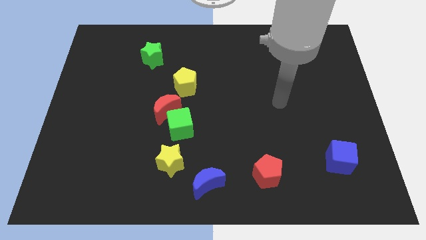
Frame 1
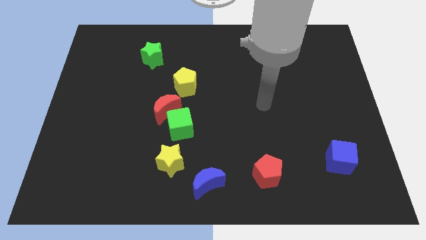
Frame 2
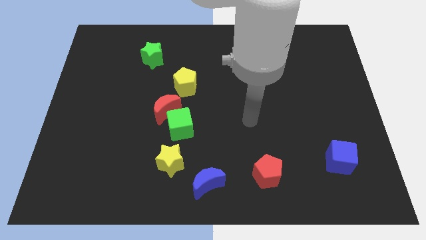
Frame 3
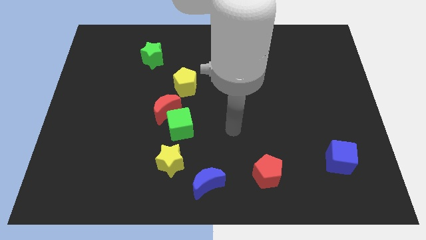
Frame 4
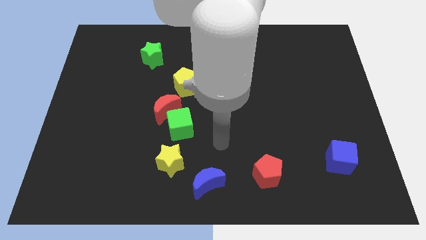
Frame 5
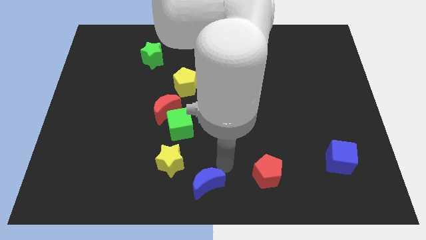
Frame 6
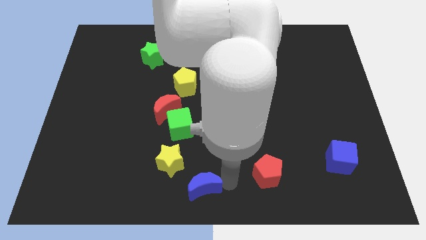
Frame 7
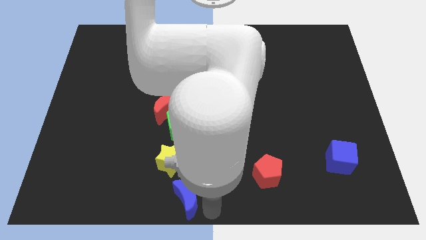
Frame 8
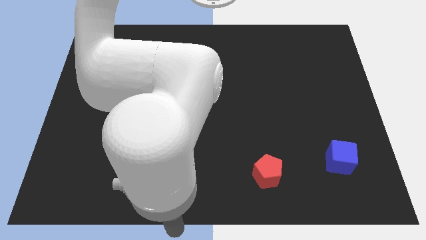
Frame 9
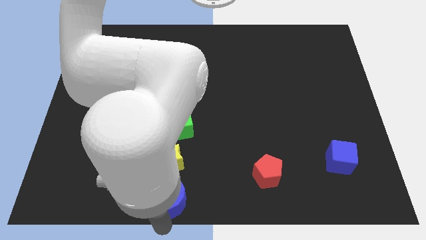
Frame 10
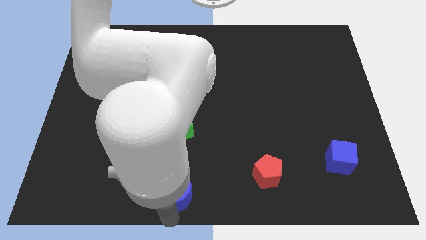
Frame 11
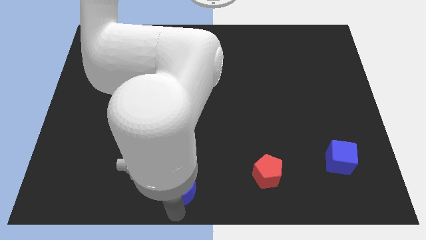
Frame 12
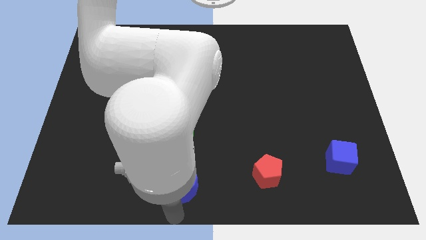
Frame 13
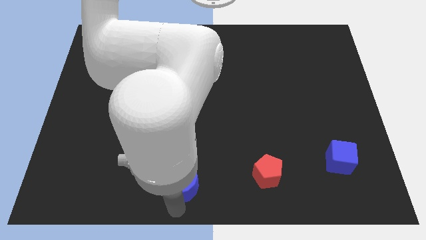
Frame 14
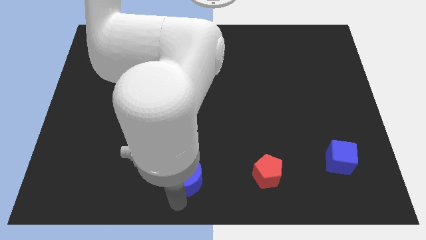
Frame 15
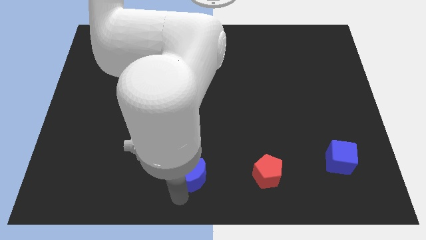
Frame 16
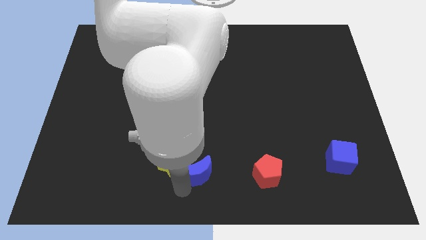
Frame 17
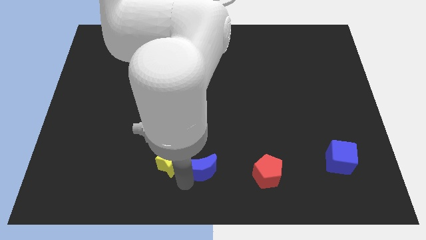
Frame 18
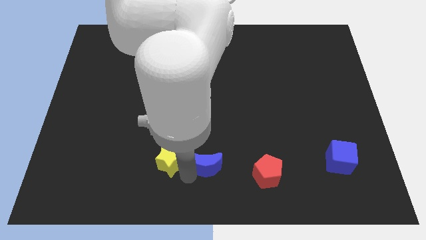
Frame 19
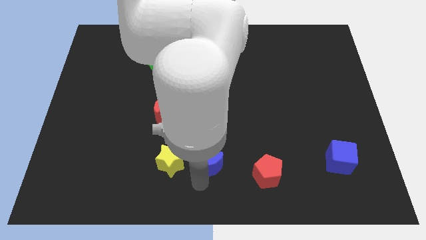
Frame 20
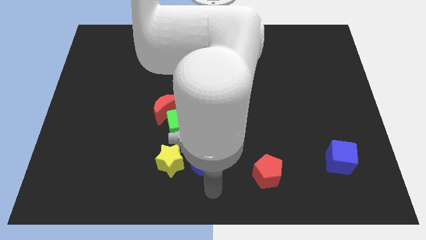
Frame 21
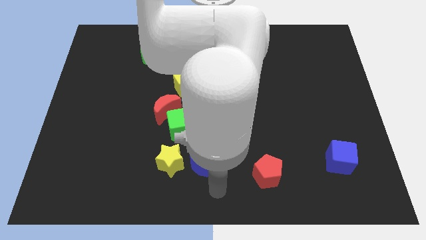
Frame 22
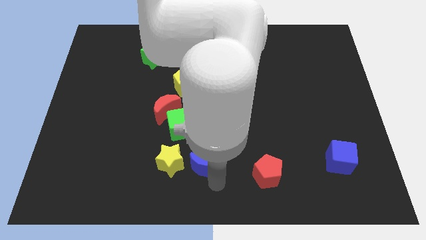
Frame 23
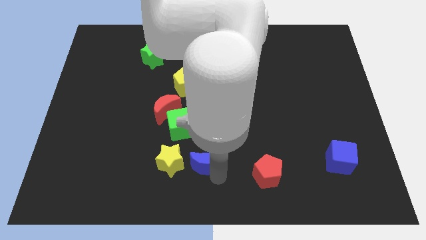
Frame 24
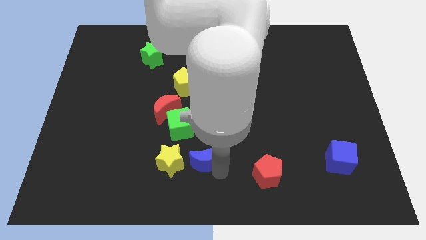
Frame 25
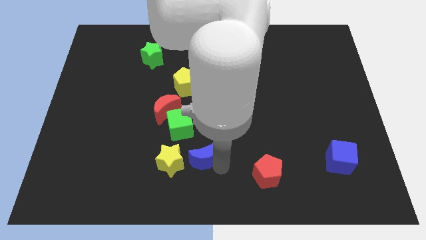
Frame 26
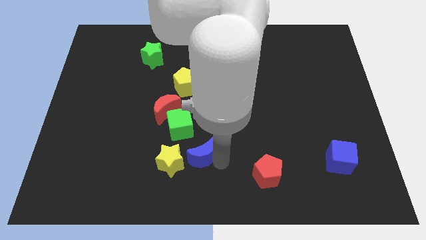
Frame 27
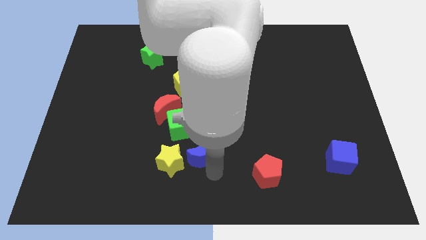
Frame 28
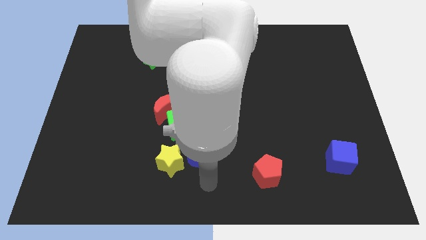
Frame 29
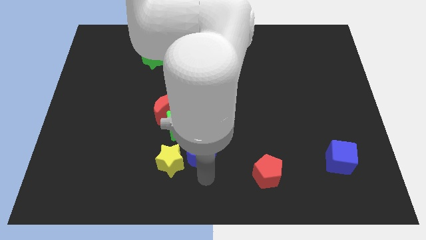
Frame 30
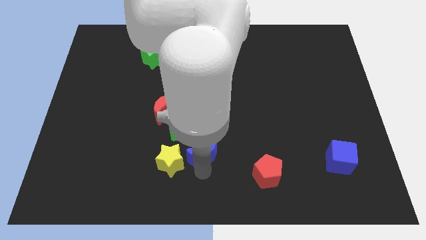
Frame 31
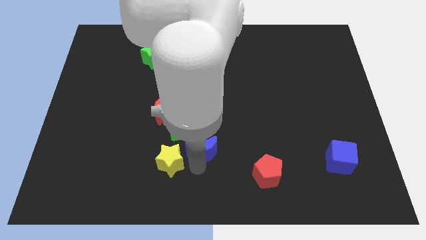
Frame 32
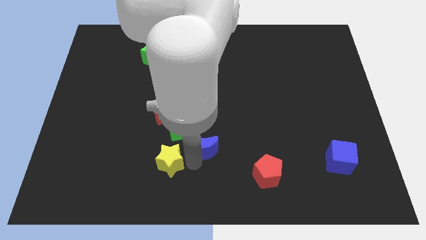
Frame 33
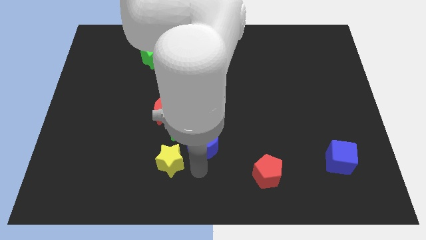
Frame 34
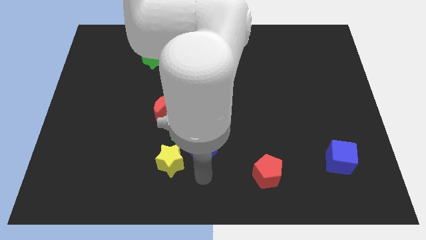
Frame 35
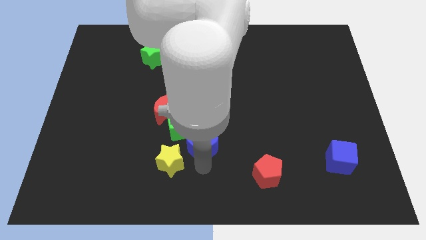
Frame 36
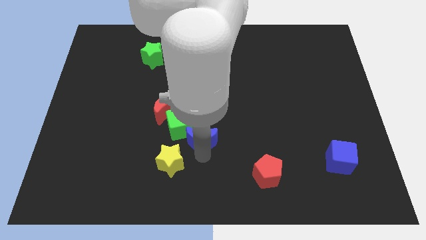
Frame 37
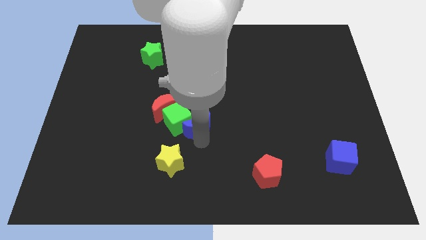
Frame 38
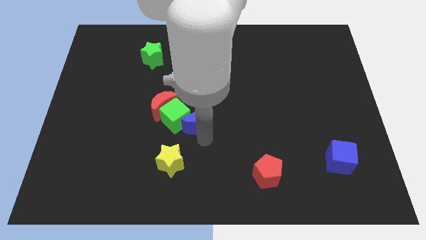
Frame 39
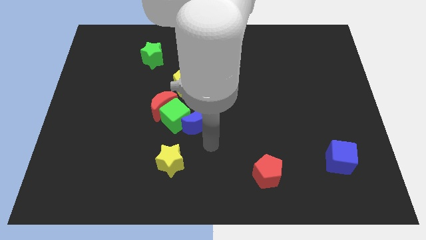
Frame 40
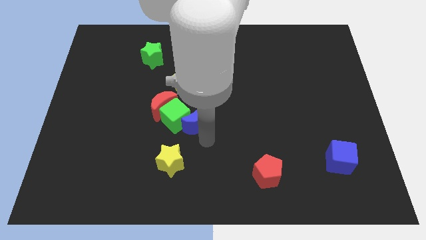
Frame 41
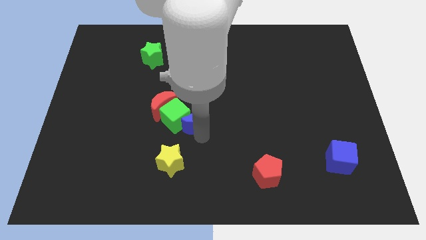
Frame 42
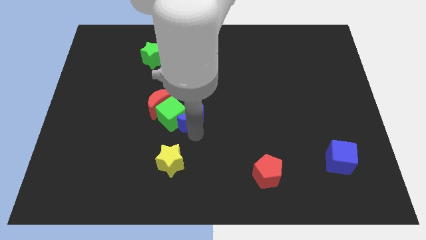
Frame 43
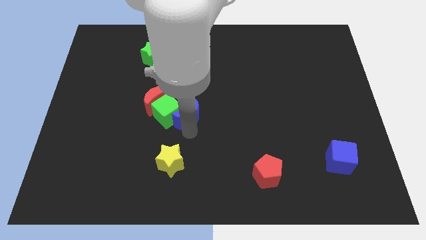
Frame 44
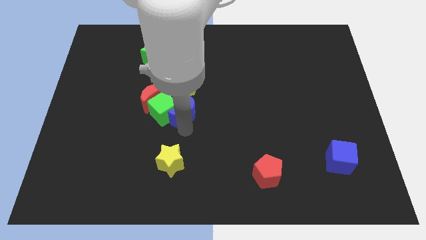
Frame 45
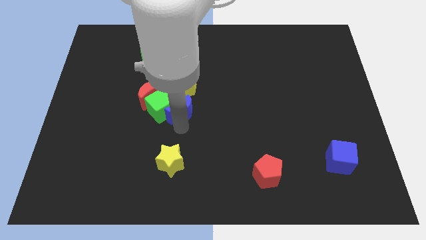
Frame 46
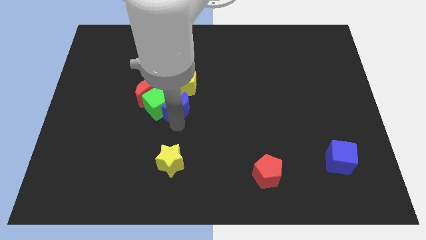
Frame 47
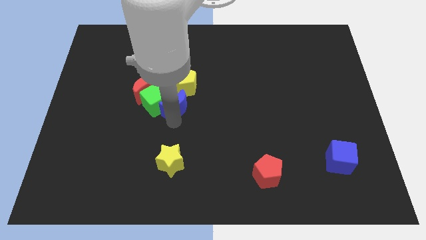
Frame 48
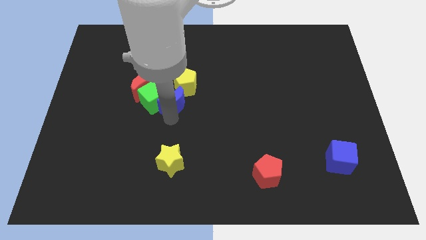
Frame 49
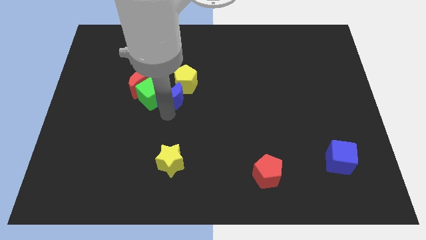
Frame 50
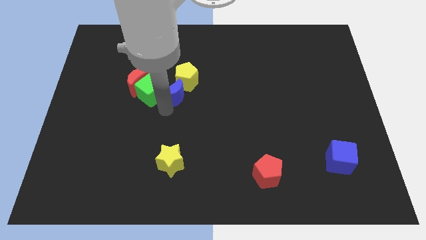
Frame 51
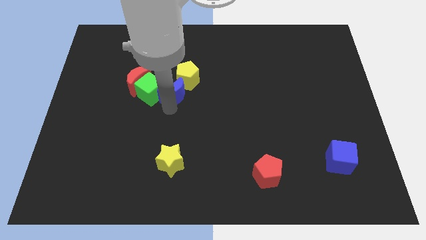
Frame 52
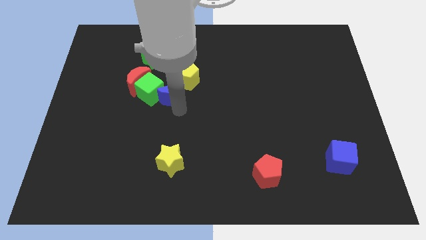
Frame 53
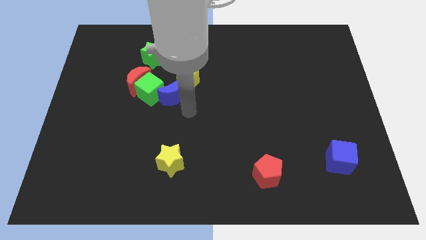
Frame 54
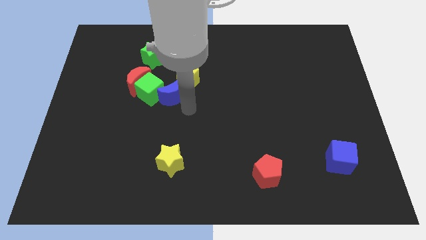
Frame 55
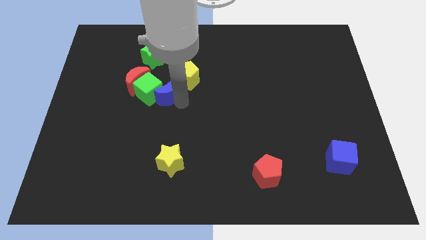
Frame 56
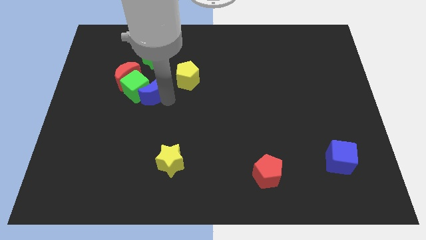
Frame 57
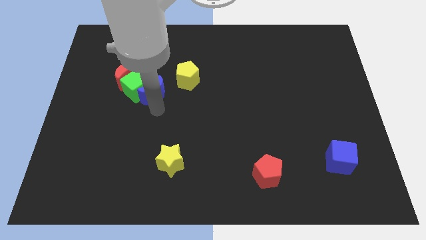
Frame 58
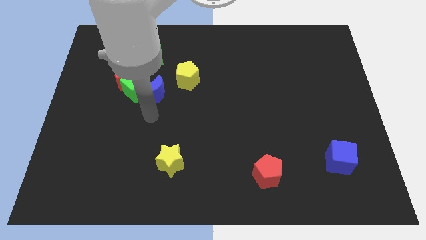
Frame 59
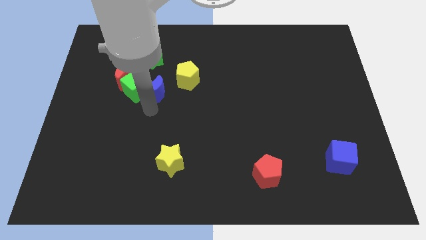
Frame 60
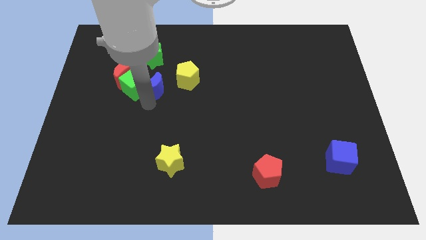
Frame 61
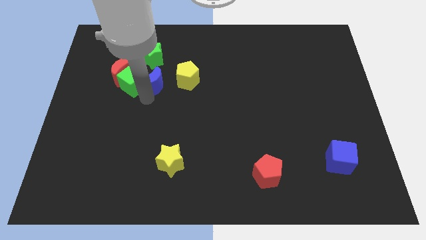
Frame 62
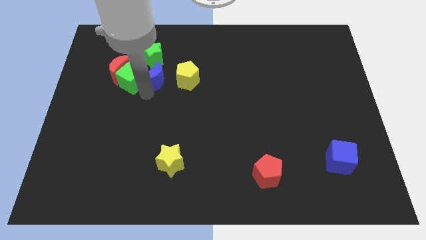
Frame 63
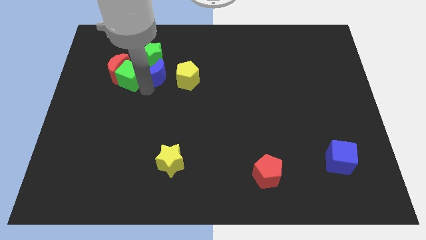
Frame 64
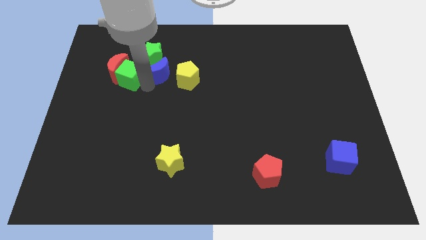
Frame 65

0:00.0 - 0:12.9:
slide the blue moon to the green star

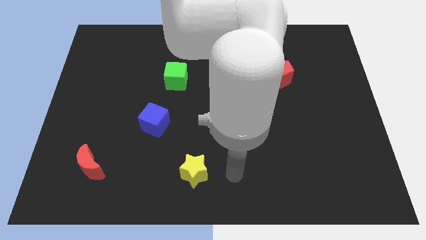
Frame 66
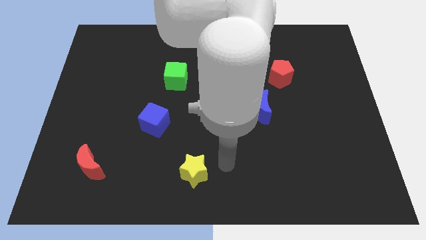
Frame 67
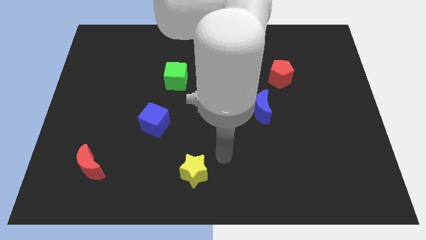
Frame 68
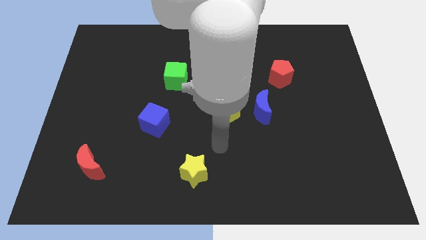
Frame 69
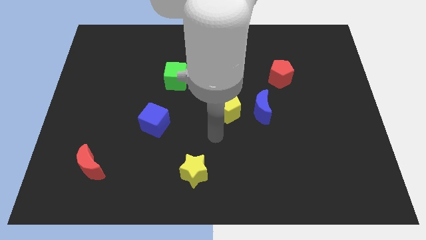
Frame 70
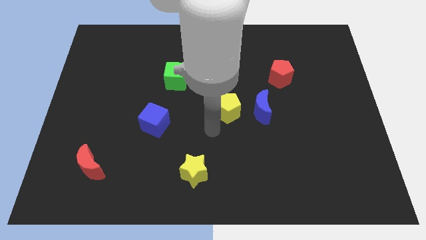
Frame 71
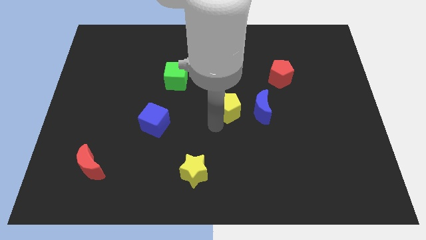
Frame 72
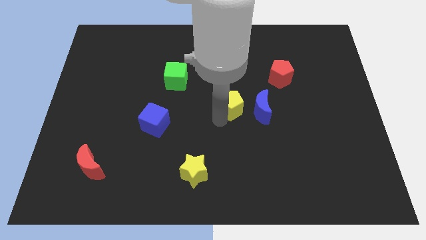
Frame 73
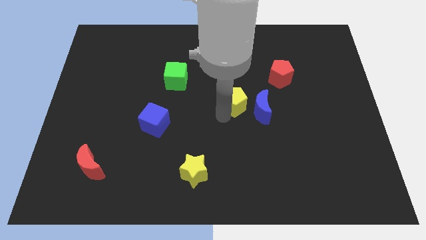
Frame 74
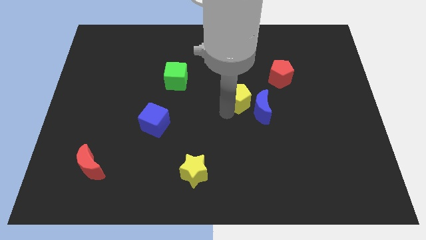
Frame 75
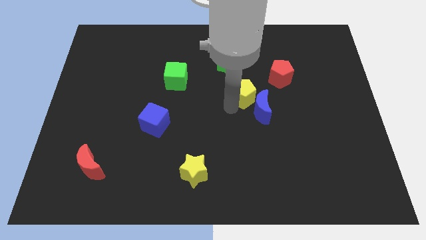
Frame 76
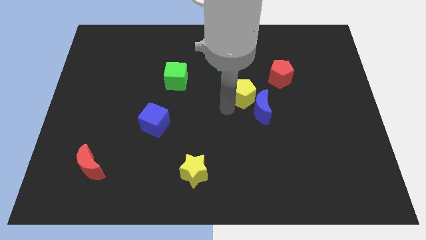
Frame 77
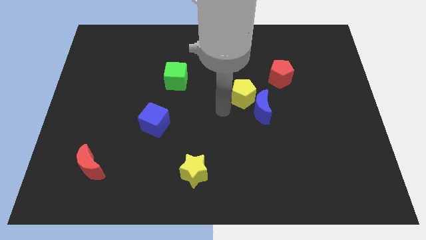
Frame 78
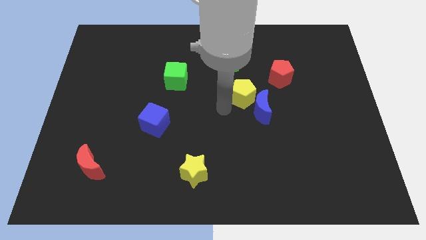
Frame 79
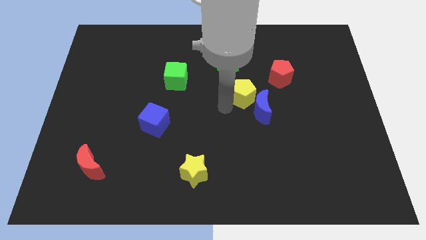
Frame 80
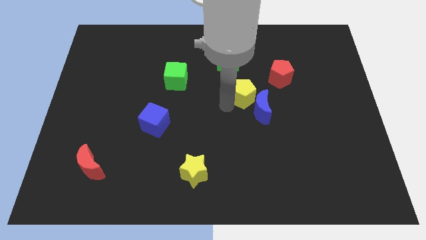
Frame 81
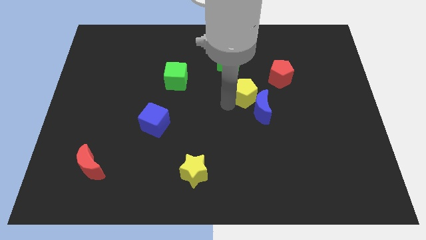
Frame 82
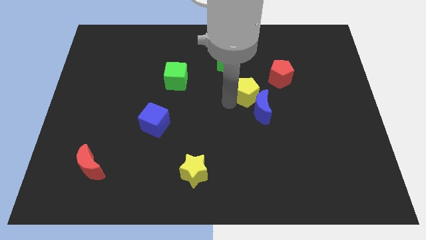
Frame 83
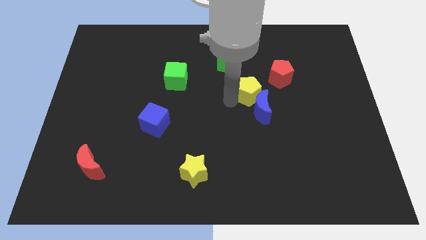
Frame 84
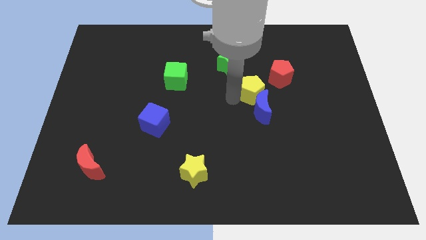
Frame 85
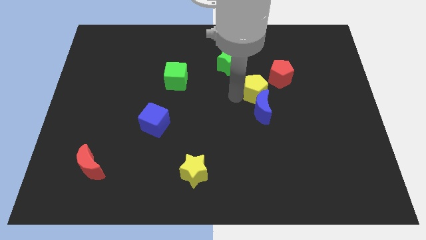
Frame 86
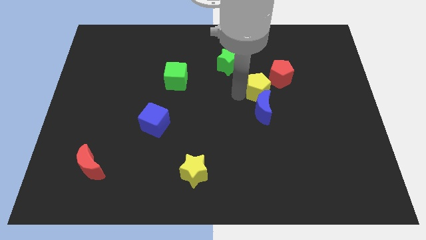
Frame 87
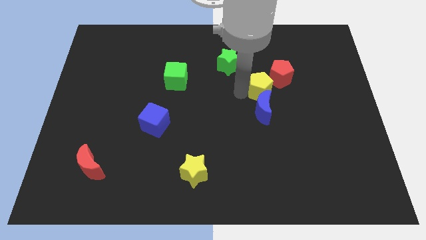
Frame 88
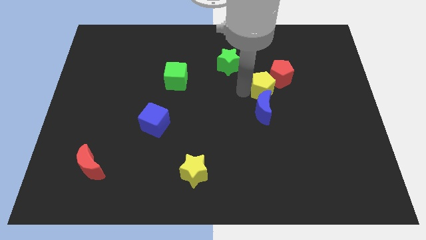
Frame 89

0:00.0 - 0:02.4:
put the yellow pentagon towards the red pentagon
